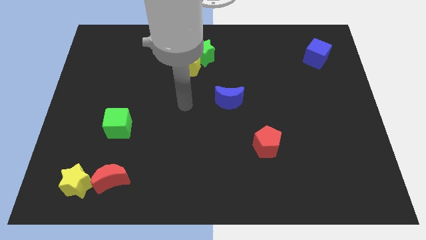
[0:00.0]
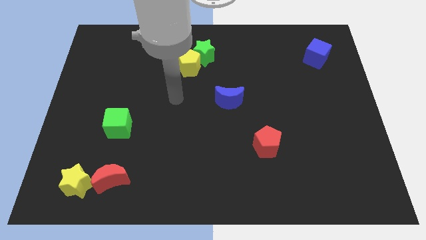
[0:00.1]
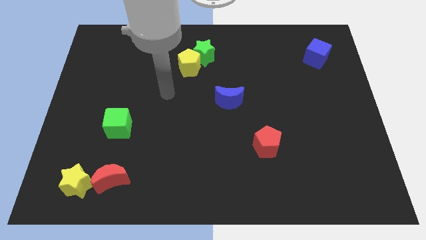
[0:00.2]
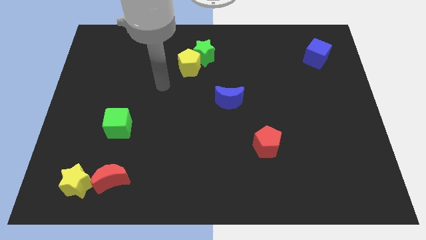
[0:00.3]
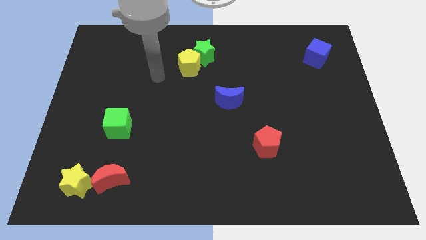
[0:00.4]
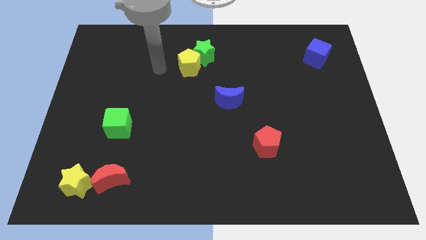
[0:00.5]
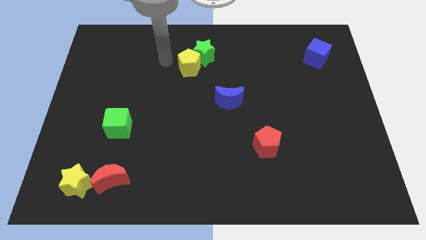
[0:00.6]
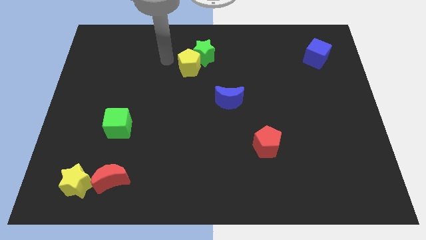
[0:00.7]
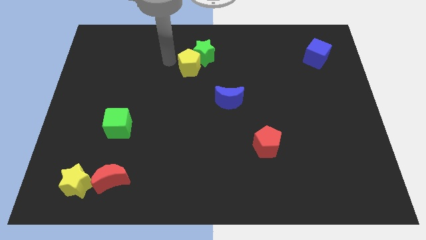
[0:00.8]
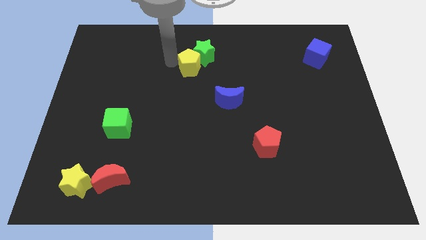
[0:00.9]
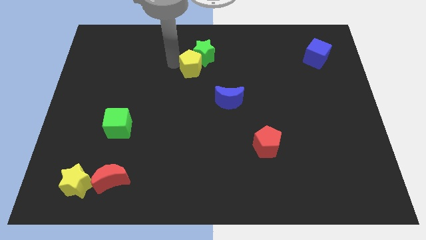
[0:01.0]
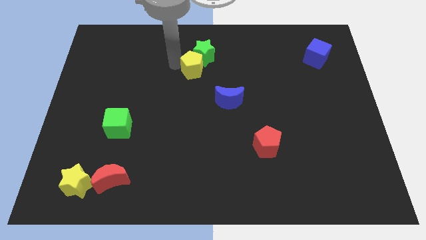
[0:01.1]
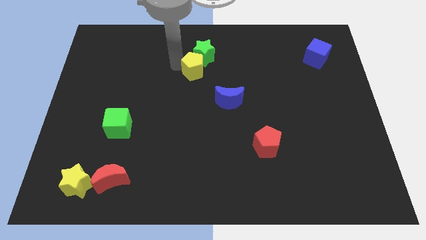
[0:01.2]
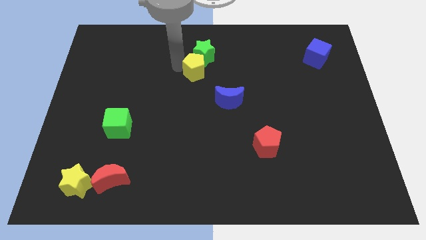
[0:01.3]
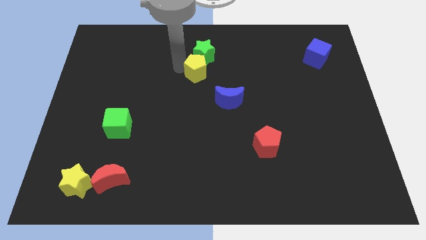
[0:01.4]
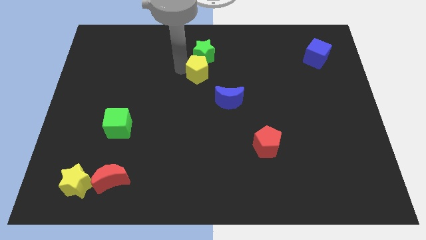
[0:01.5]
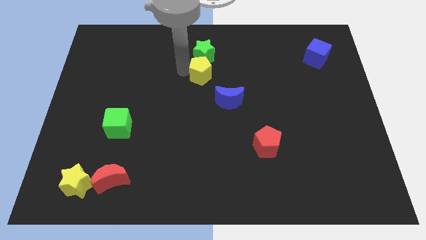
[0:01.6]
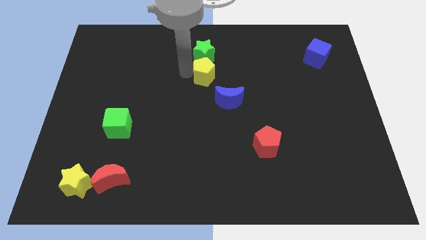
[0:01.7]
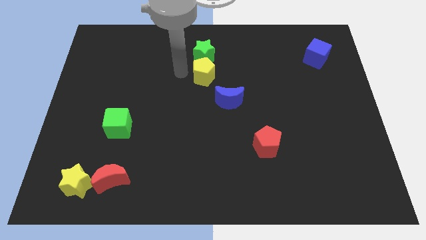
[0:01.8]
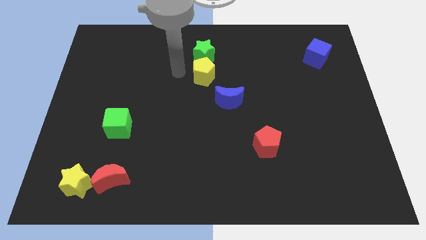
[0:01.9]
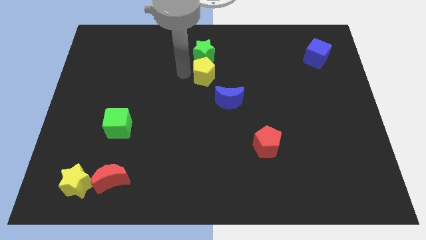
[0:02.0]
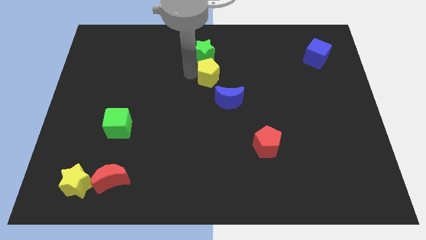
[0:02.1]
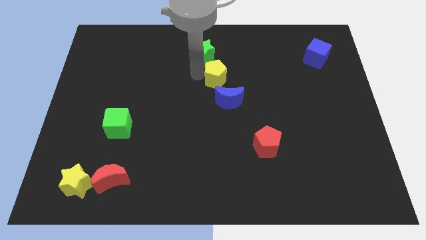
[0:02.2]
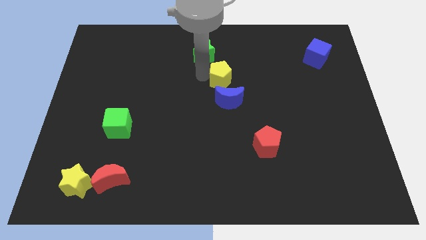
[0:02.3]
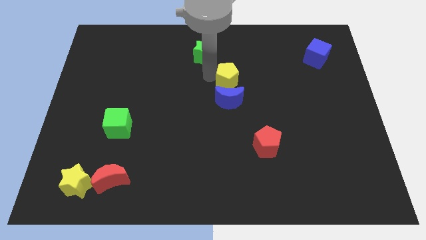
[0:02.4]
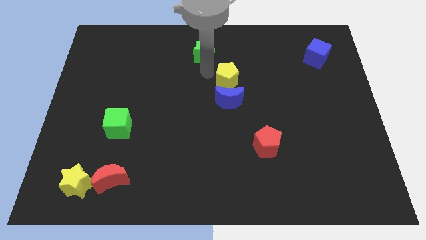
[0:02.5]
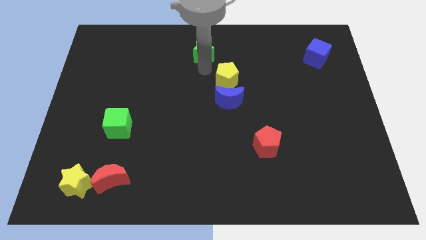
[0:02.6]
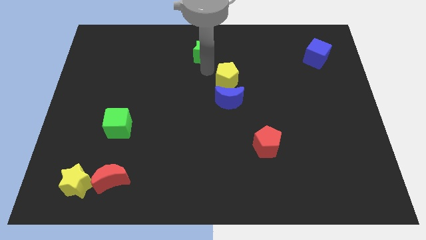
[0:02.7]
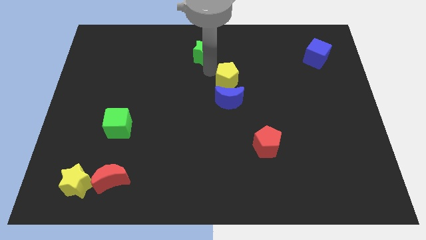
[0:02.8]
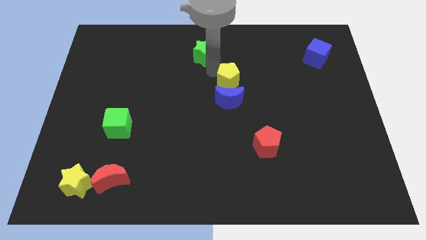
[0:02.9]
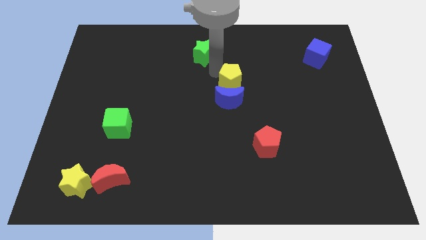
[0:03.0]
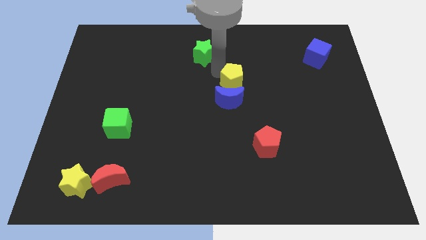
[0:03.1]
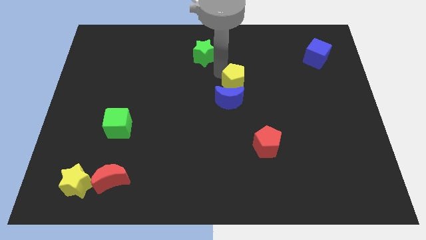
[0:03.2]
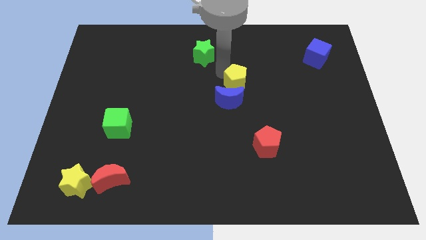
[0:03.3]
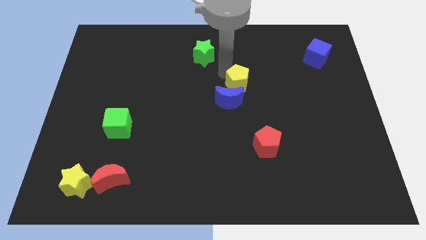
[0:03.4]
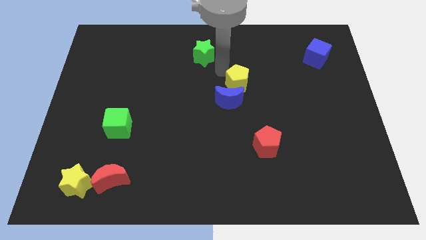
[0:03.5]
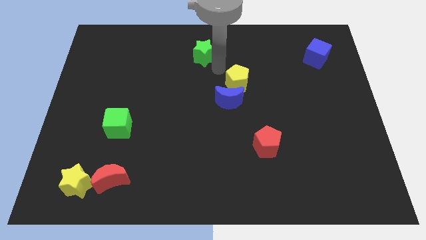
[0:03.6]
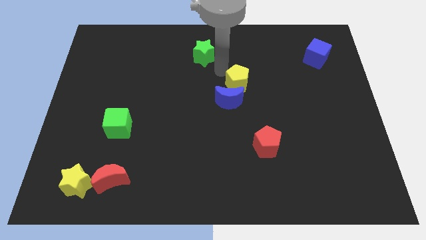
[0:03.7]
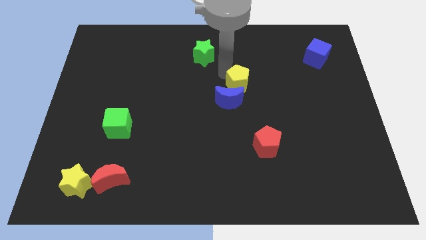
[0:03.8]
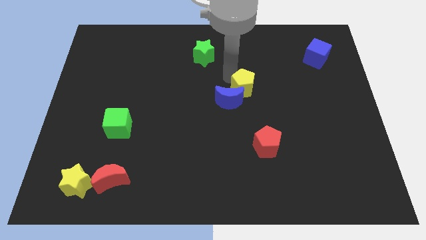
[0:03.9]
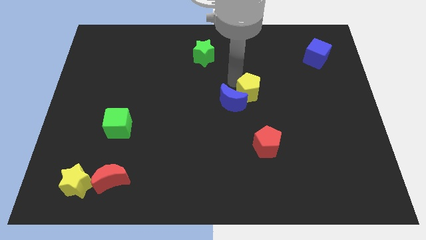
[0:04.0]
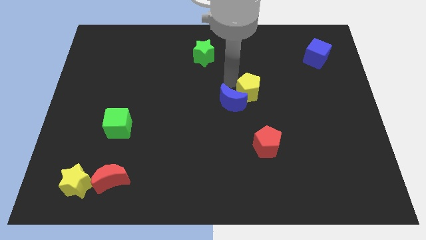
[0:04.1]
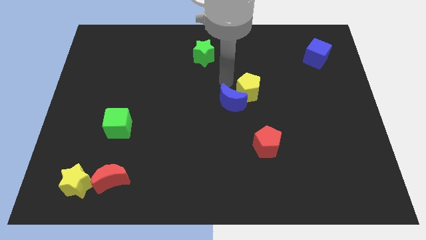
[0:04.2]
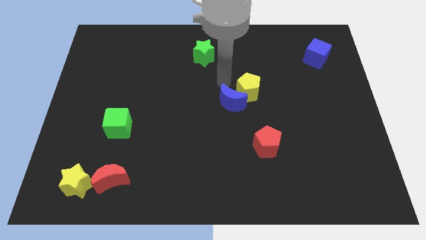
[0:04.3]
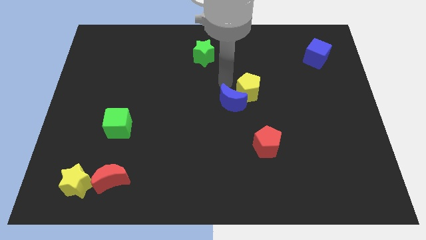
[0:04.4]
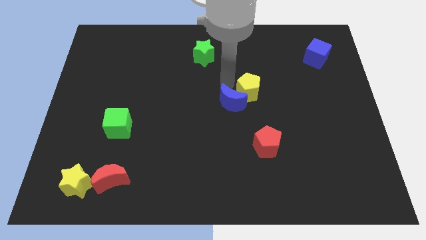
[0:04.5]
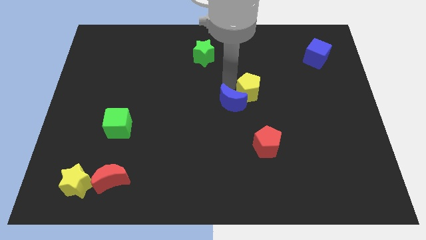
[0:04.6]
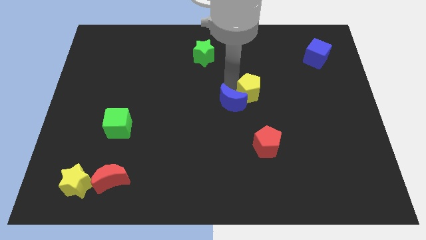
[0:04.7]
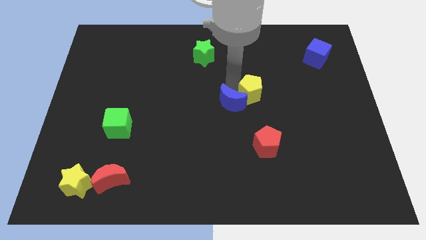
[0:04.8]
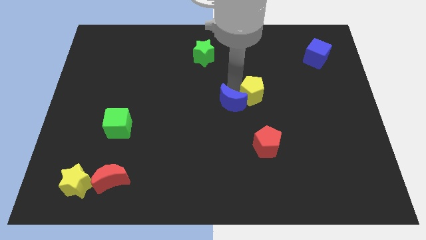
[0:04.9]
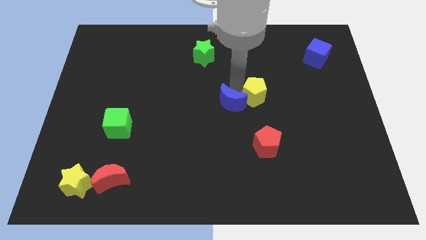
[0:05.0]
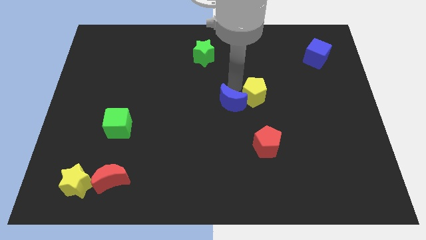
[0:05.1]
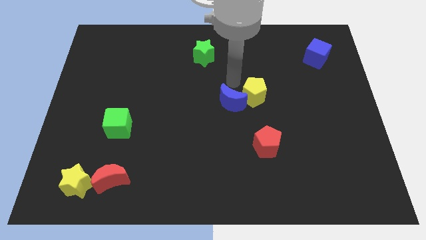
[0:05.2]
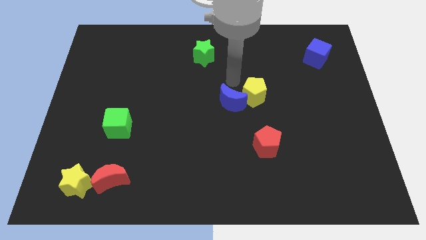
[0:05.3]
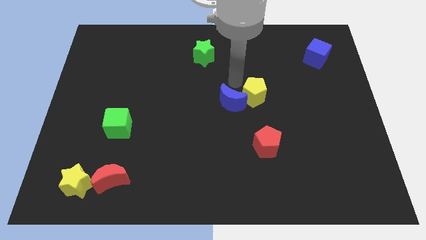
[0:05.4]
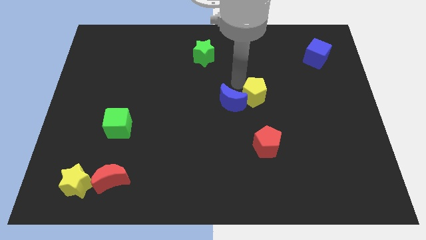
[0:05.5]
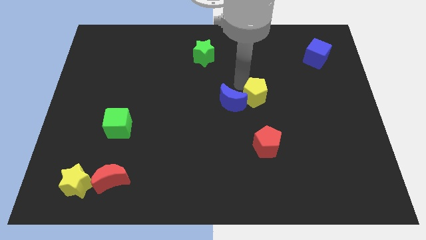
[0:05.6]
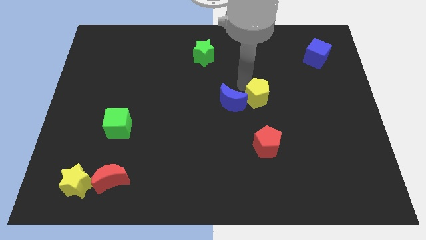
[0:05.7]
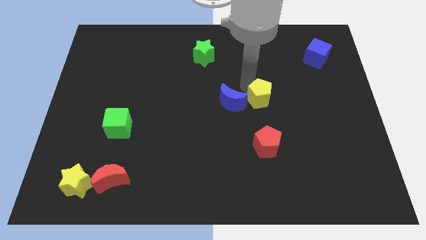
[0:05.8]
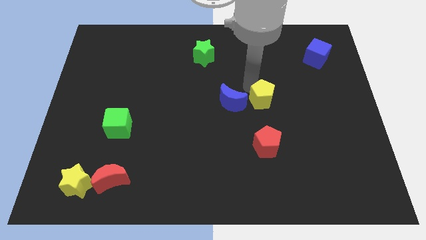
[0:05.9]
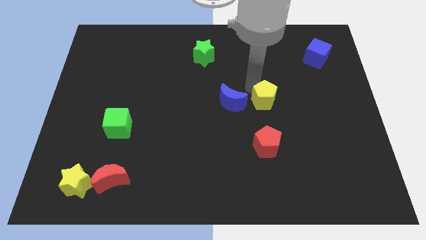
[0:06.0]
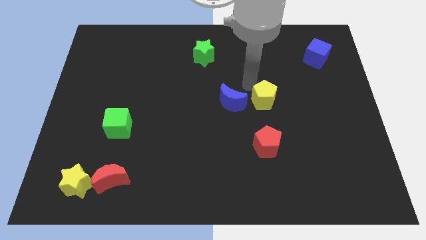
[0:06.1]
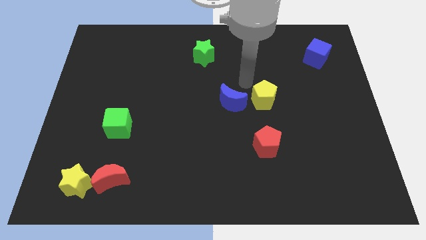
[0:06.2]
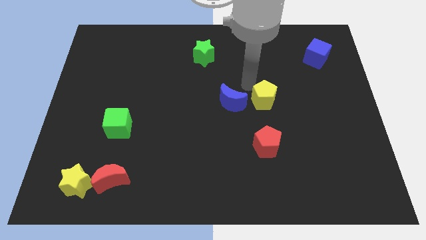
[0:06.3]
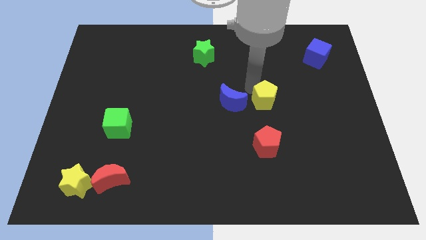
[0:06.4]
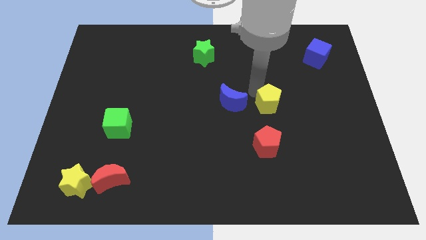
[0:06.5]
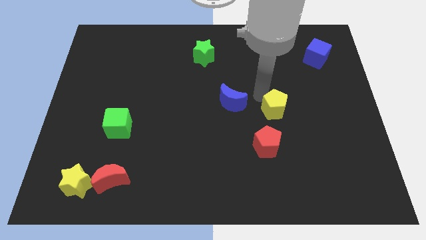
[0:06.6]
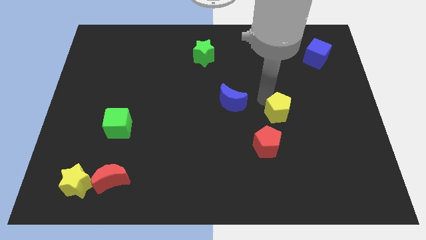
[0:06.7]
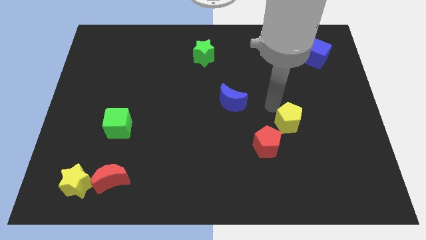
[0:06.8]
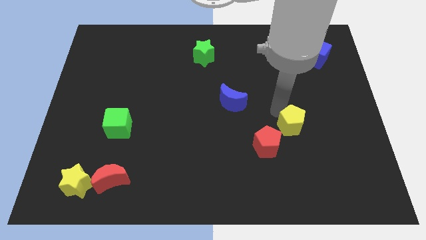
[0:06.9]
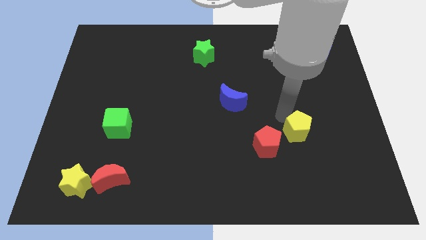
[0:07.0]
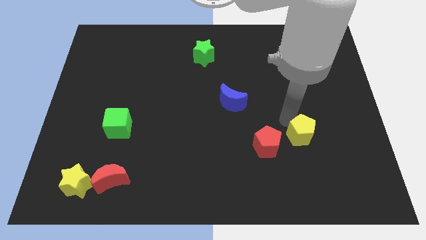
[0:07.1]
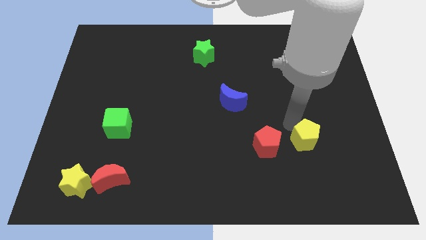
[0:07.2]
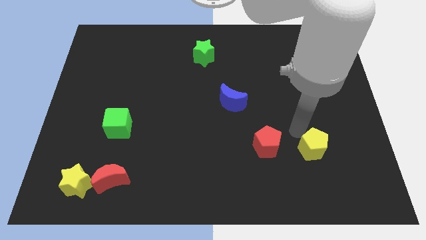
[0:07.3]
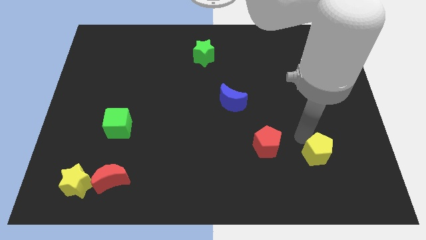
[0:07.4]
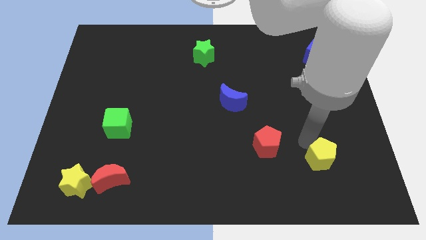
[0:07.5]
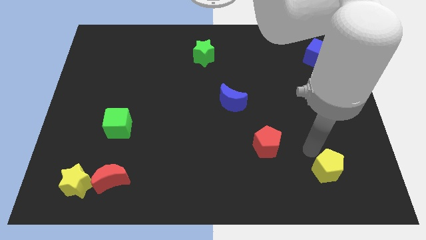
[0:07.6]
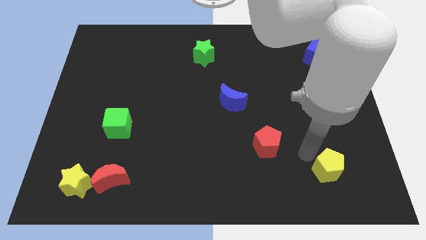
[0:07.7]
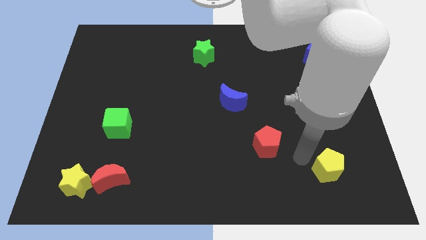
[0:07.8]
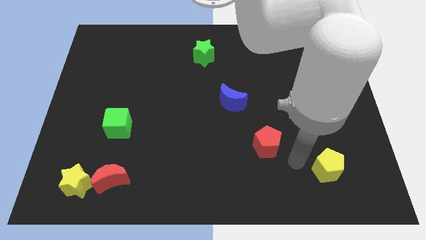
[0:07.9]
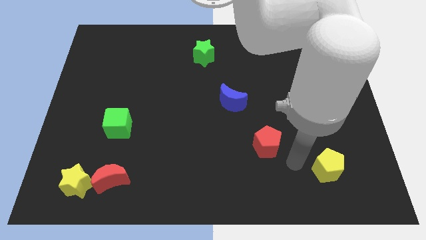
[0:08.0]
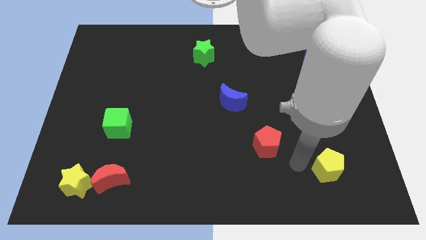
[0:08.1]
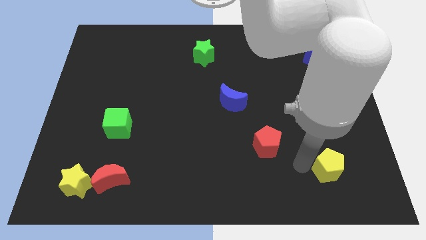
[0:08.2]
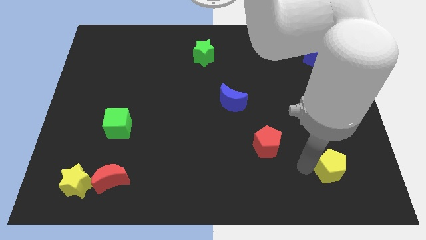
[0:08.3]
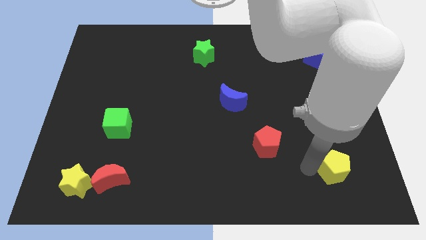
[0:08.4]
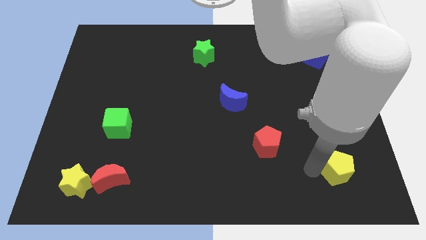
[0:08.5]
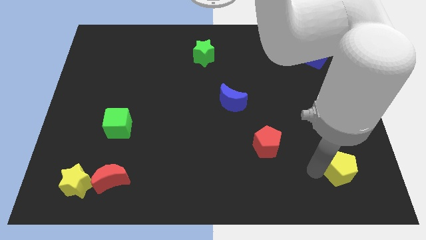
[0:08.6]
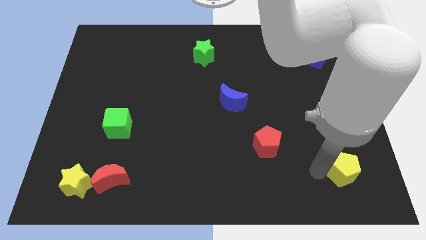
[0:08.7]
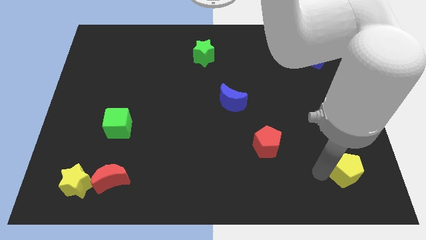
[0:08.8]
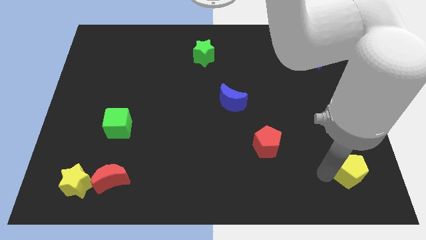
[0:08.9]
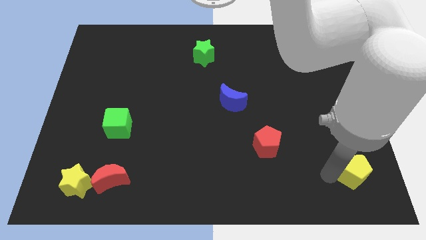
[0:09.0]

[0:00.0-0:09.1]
put the yellow pentagon to the bottom right corner
